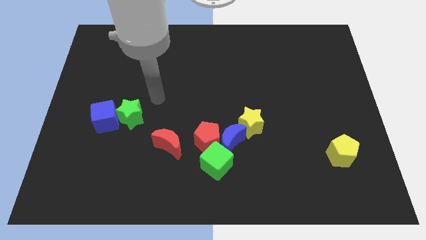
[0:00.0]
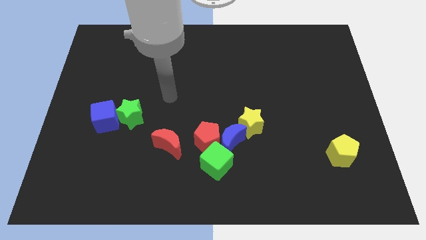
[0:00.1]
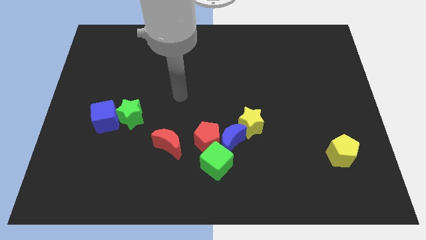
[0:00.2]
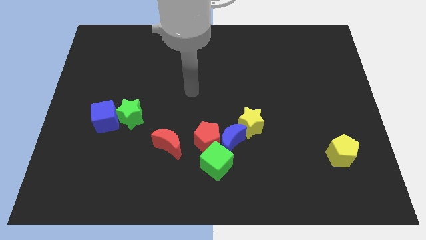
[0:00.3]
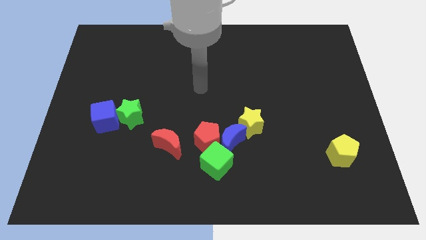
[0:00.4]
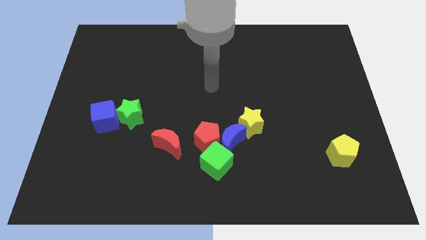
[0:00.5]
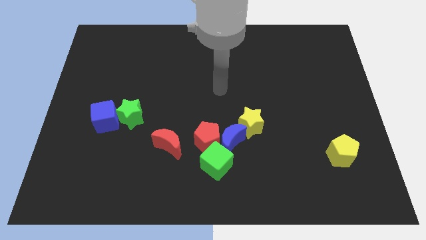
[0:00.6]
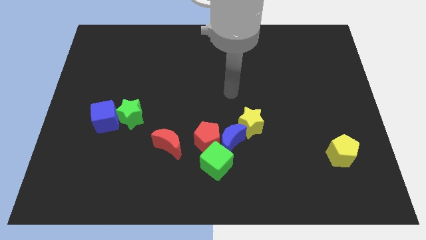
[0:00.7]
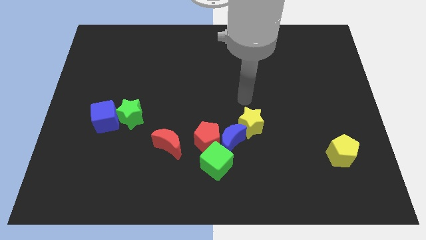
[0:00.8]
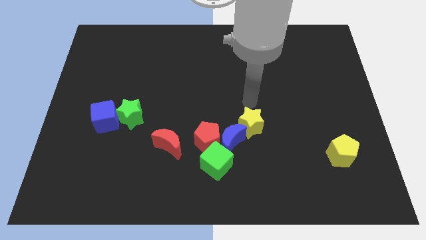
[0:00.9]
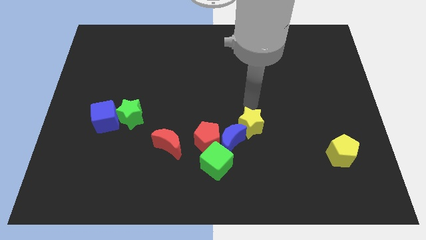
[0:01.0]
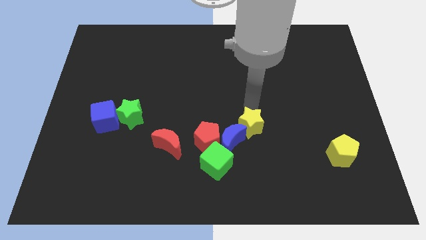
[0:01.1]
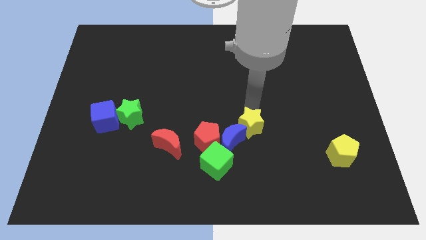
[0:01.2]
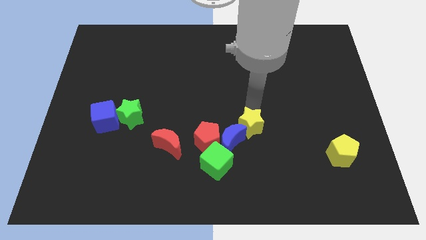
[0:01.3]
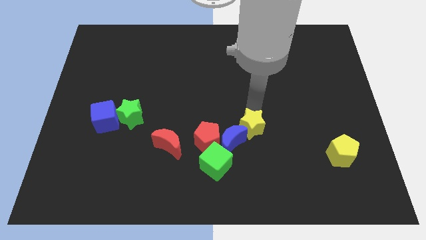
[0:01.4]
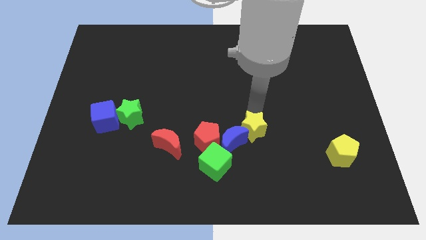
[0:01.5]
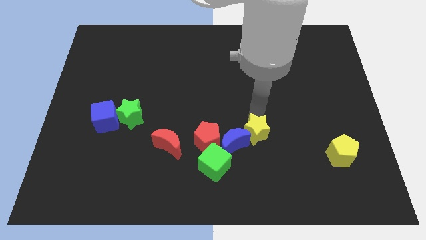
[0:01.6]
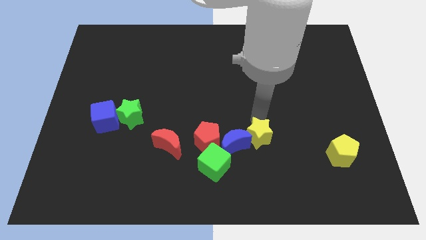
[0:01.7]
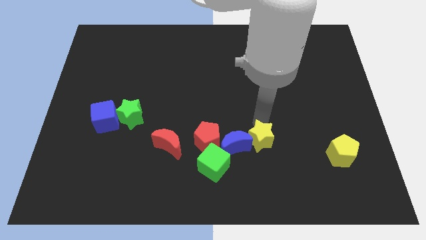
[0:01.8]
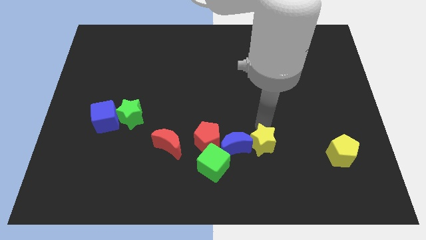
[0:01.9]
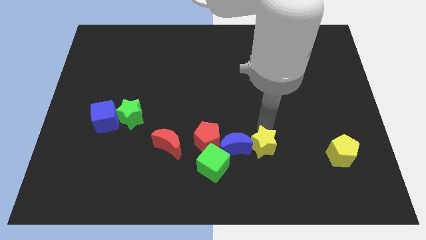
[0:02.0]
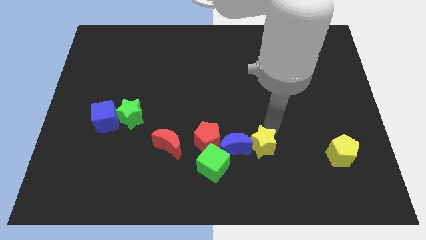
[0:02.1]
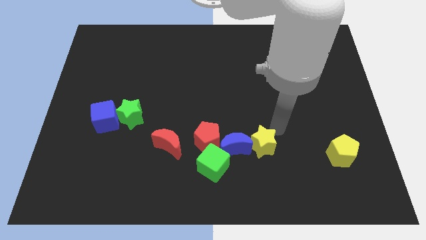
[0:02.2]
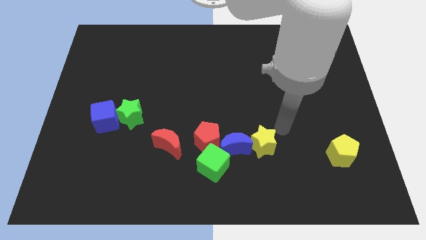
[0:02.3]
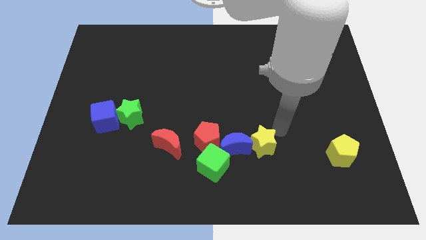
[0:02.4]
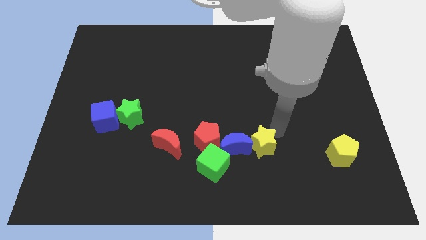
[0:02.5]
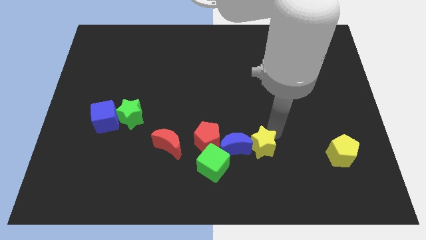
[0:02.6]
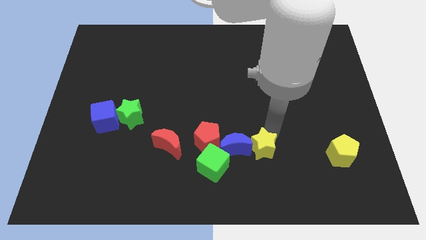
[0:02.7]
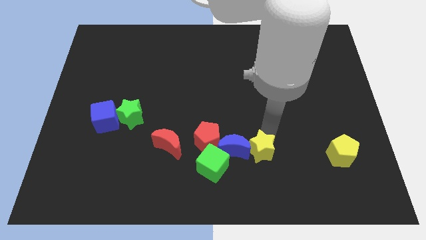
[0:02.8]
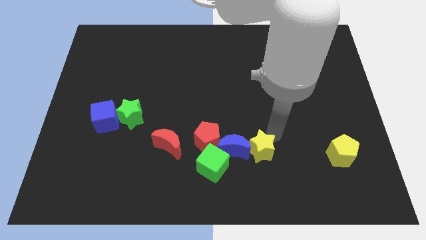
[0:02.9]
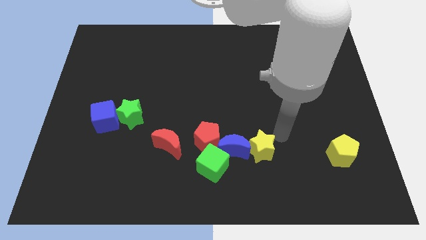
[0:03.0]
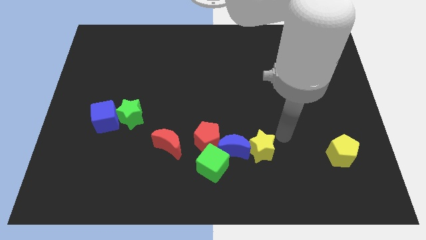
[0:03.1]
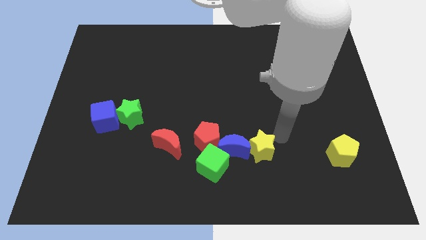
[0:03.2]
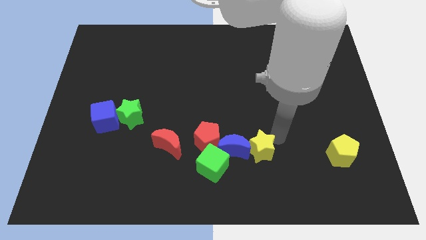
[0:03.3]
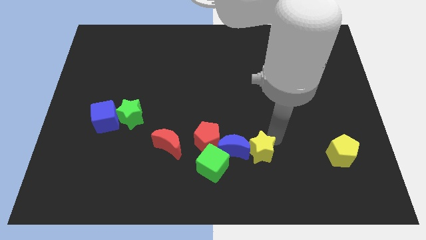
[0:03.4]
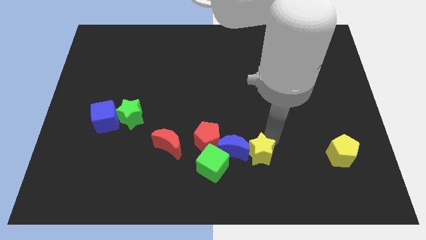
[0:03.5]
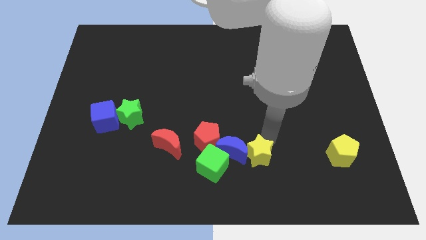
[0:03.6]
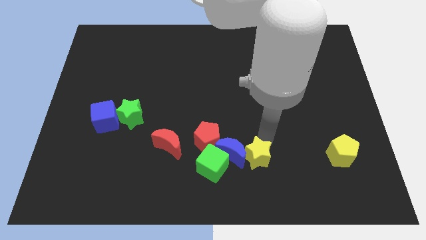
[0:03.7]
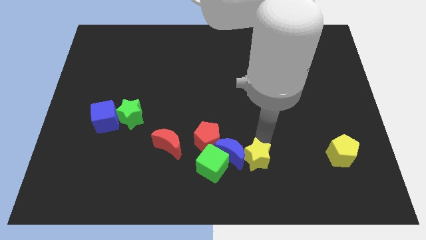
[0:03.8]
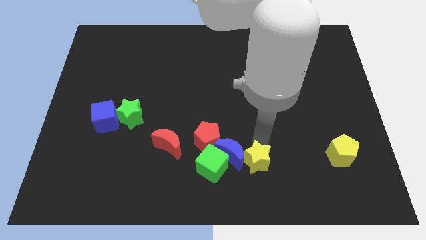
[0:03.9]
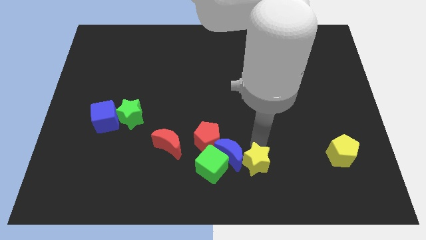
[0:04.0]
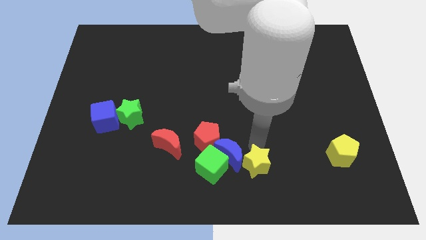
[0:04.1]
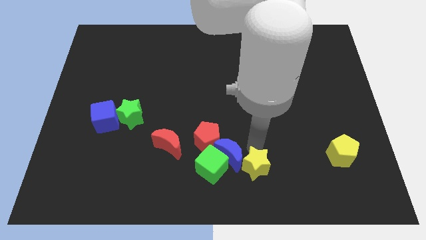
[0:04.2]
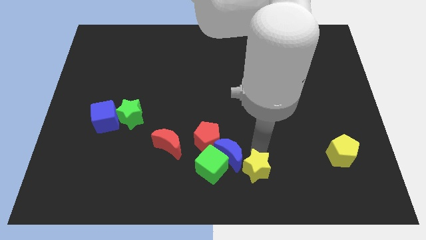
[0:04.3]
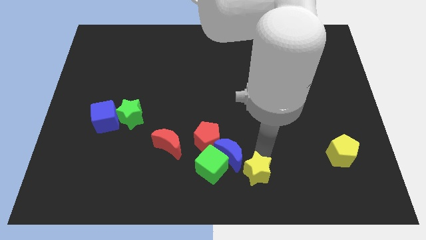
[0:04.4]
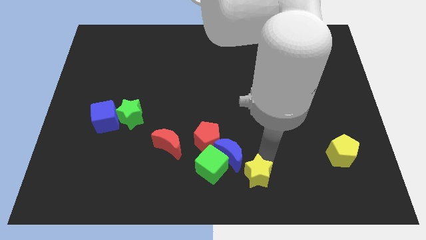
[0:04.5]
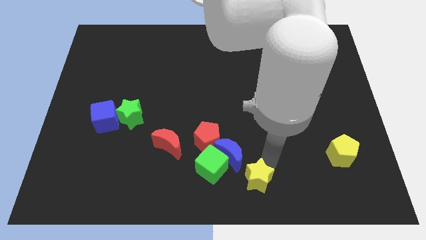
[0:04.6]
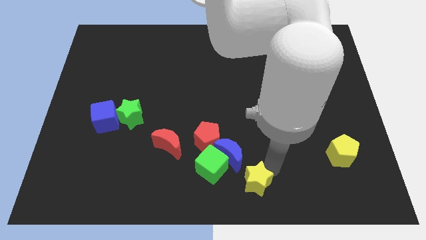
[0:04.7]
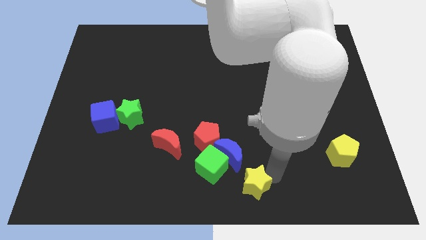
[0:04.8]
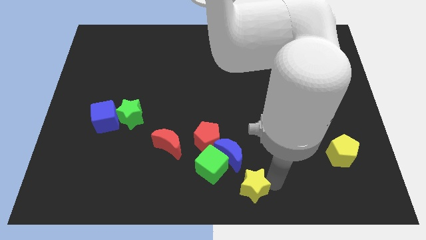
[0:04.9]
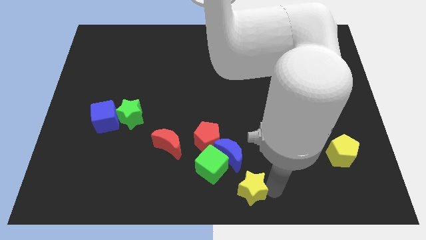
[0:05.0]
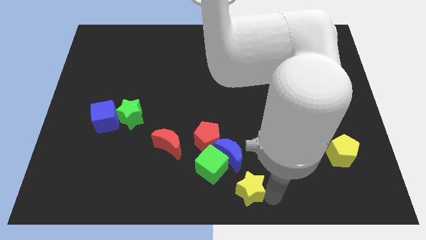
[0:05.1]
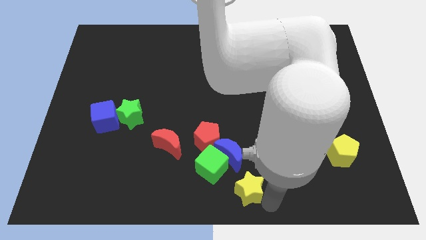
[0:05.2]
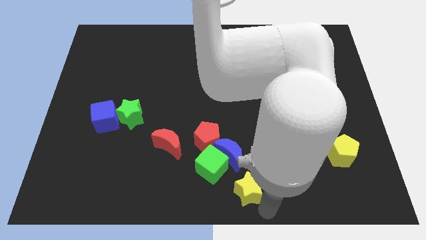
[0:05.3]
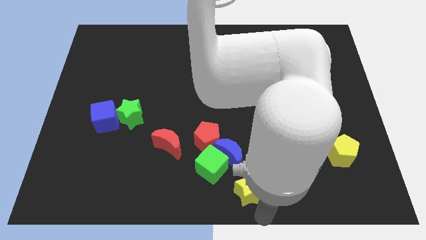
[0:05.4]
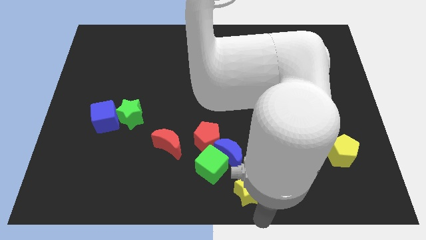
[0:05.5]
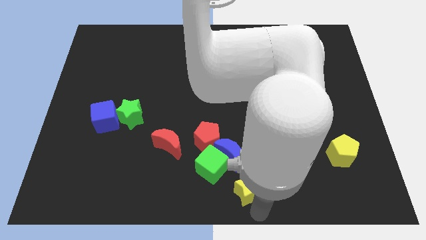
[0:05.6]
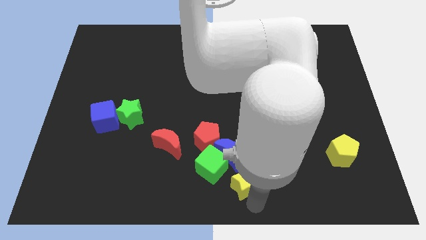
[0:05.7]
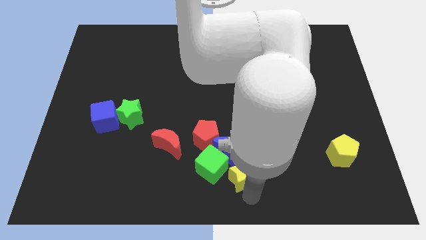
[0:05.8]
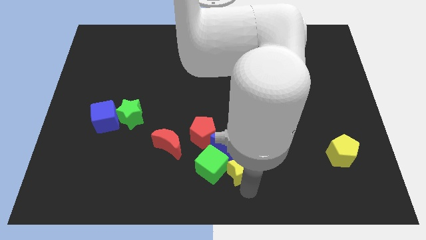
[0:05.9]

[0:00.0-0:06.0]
push the yellow star next to the green cube

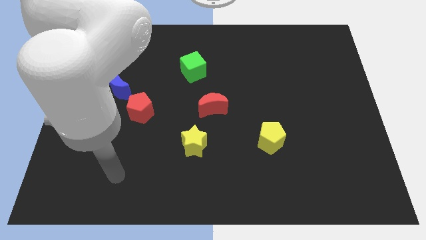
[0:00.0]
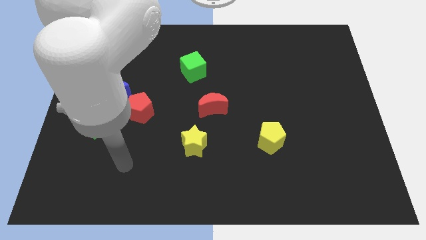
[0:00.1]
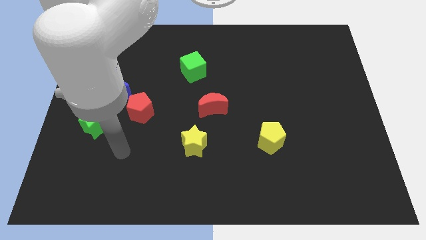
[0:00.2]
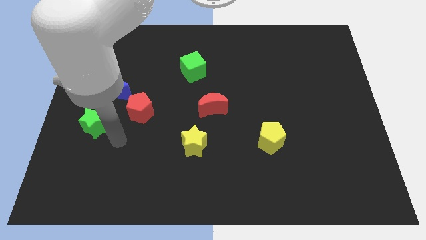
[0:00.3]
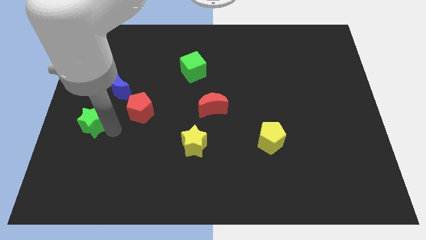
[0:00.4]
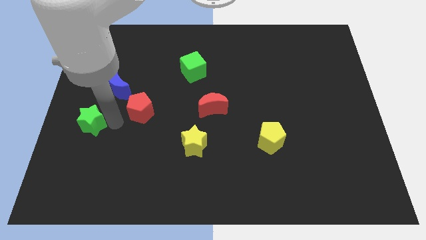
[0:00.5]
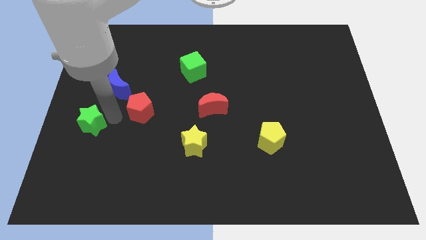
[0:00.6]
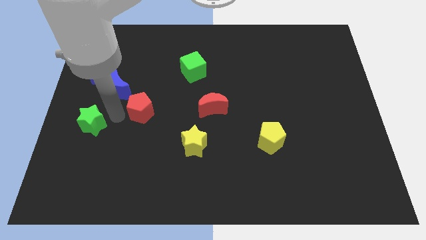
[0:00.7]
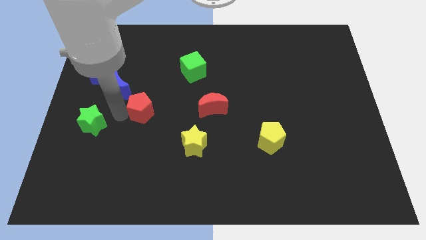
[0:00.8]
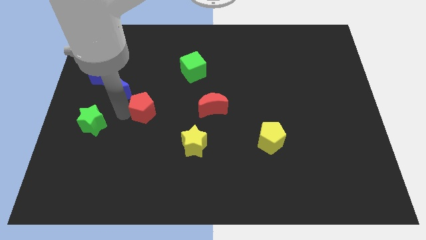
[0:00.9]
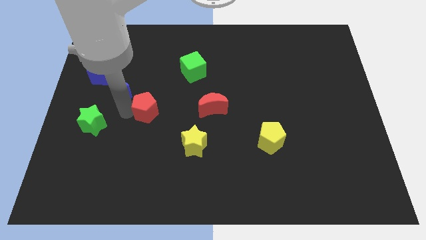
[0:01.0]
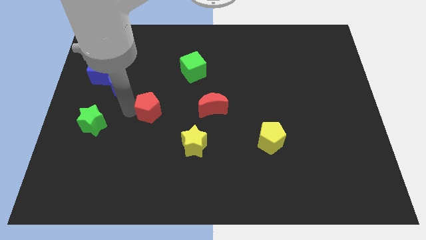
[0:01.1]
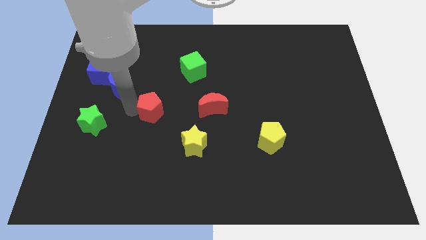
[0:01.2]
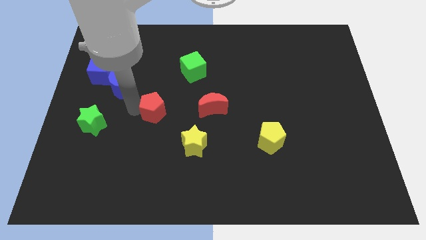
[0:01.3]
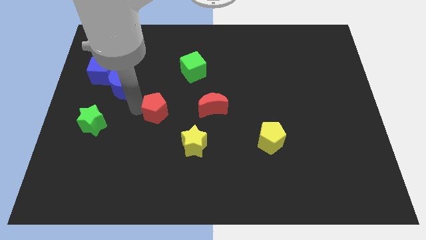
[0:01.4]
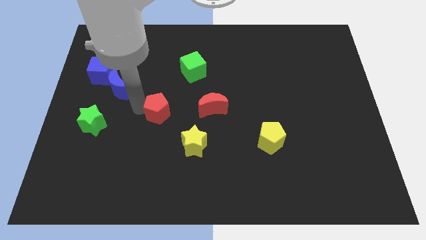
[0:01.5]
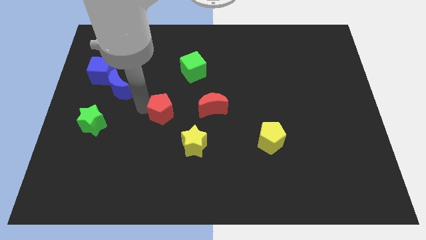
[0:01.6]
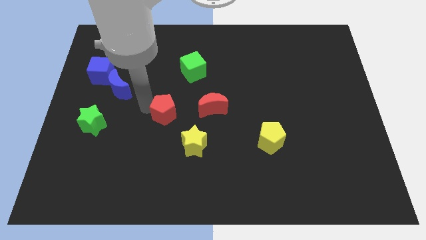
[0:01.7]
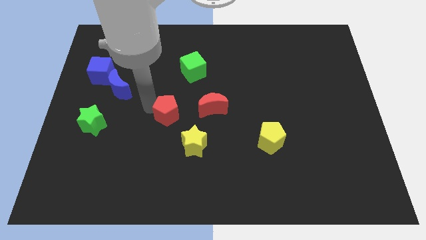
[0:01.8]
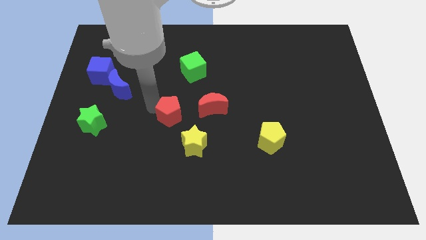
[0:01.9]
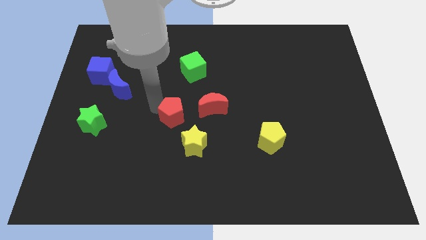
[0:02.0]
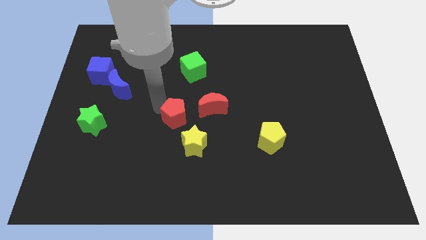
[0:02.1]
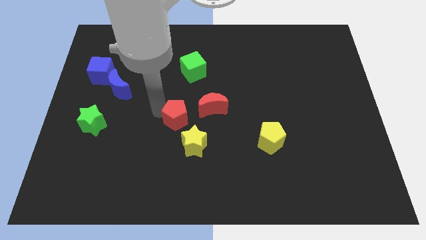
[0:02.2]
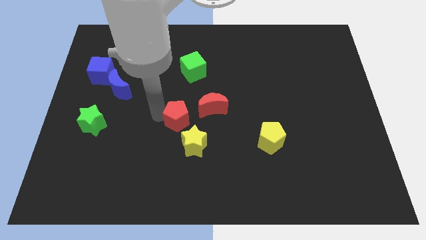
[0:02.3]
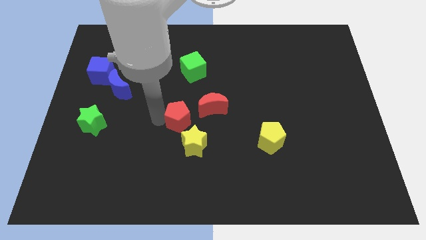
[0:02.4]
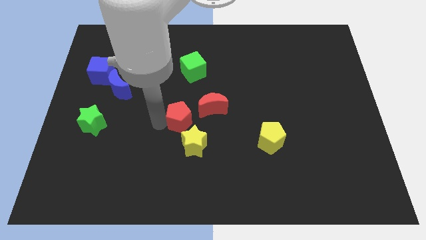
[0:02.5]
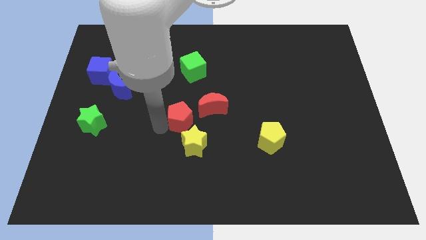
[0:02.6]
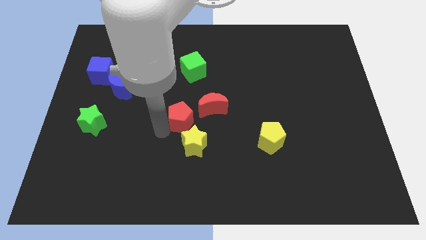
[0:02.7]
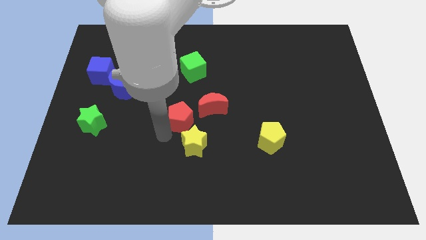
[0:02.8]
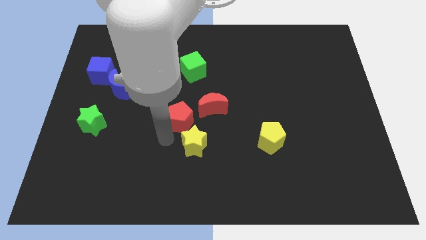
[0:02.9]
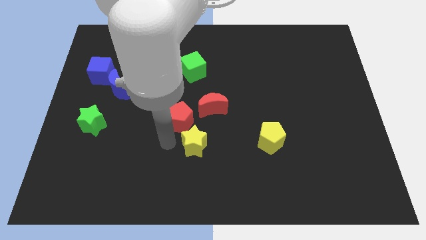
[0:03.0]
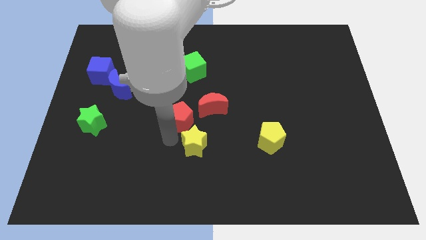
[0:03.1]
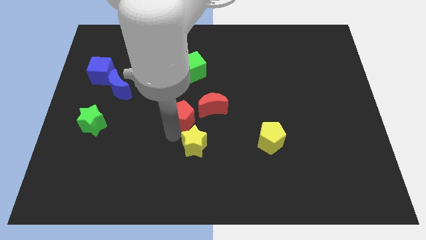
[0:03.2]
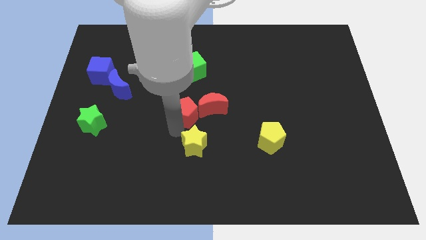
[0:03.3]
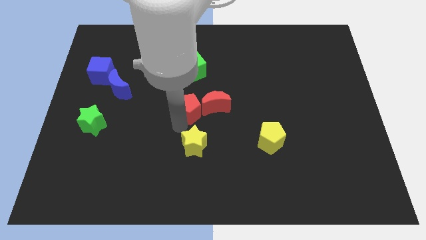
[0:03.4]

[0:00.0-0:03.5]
put the red pentagon towards the red moon
